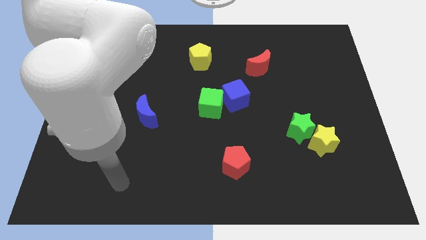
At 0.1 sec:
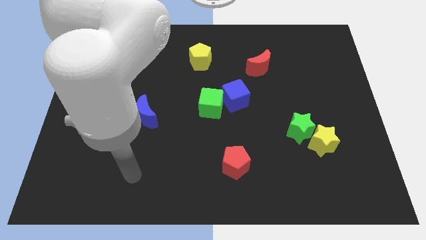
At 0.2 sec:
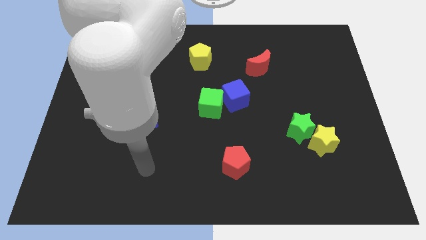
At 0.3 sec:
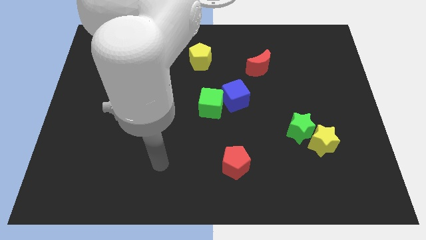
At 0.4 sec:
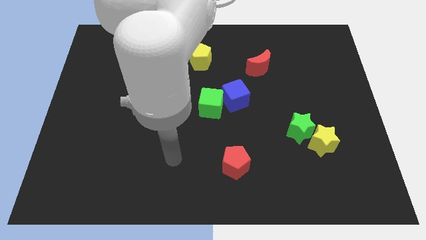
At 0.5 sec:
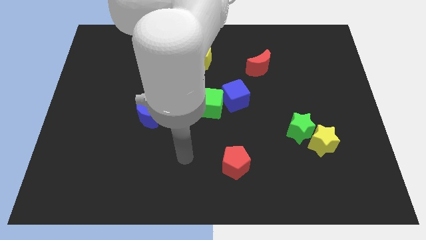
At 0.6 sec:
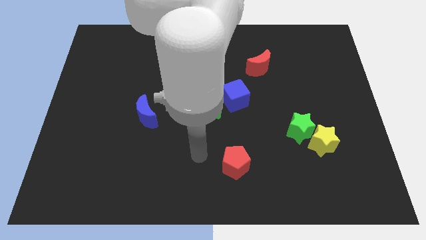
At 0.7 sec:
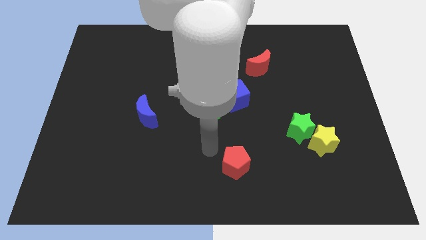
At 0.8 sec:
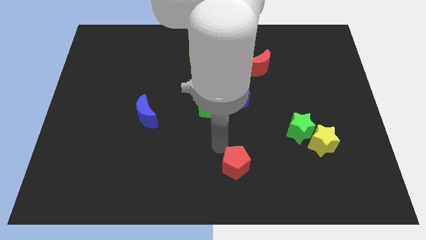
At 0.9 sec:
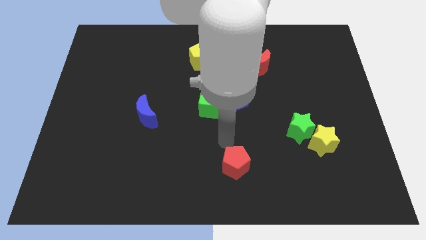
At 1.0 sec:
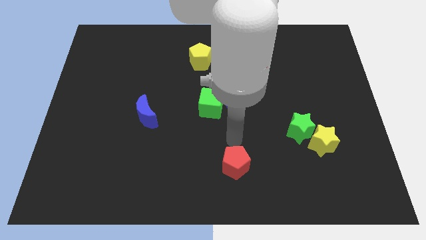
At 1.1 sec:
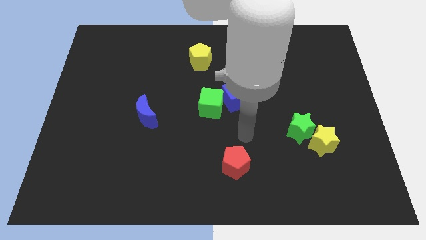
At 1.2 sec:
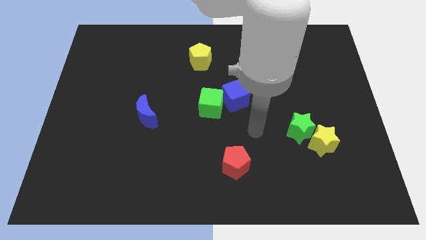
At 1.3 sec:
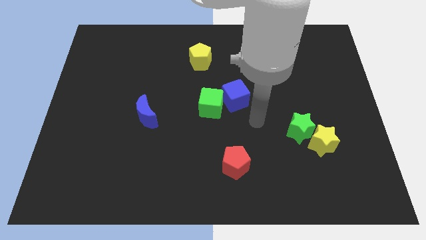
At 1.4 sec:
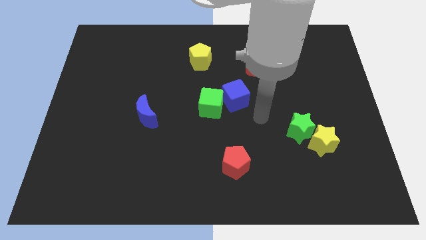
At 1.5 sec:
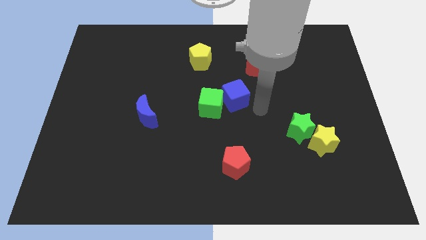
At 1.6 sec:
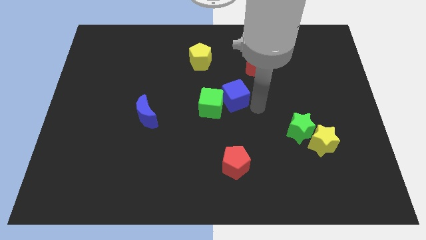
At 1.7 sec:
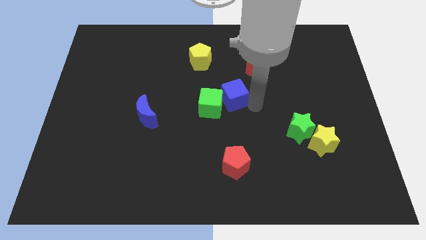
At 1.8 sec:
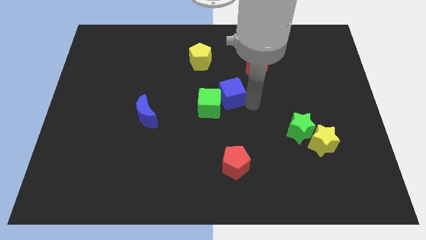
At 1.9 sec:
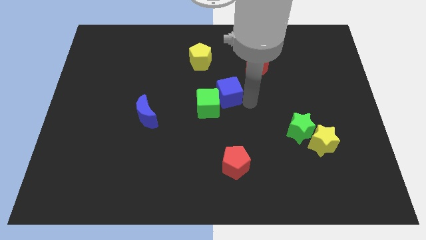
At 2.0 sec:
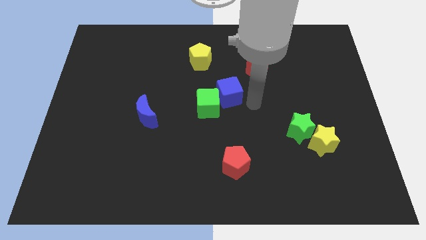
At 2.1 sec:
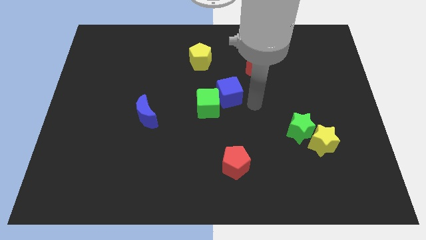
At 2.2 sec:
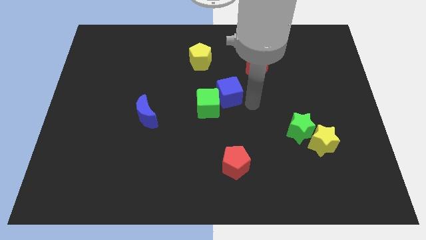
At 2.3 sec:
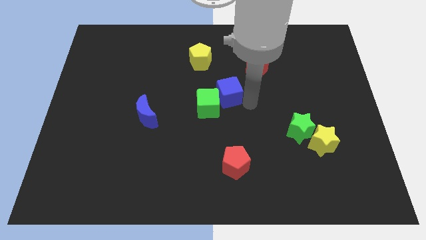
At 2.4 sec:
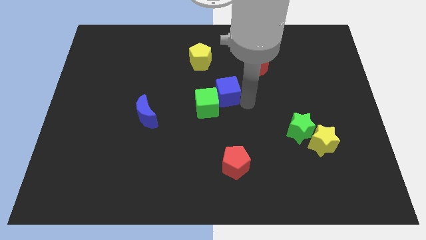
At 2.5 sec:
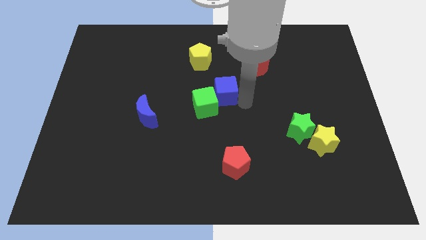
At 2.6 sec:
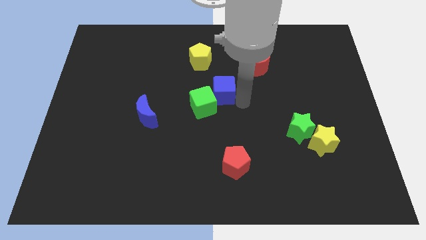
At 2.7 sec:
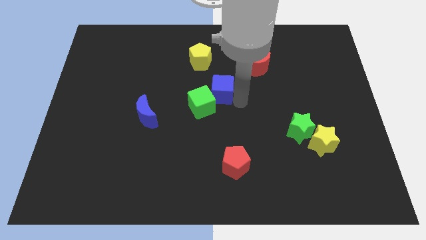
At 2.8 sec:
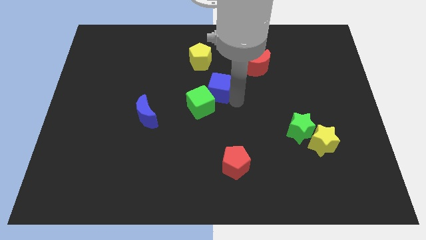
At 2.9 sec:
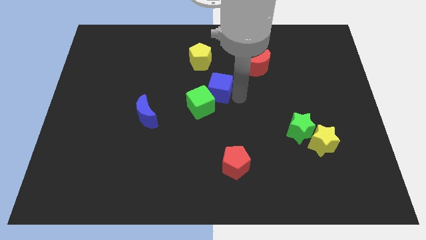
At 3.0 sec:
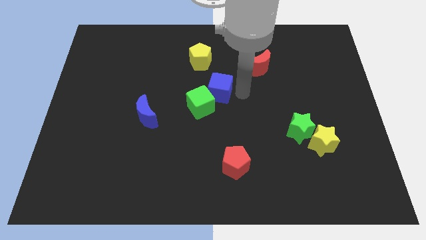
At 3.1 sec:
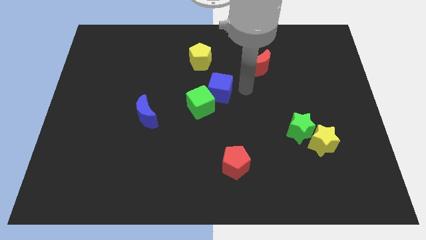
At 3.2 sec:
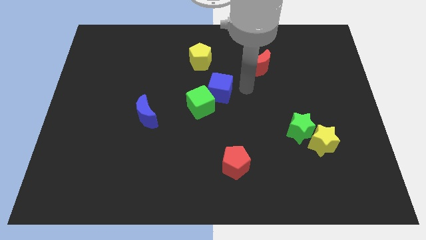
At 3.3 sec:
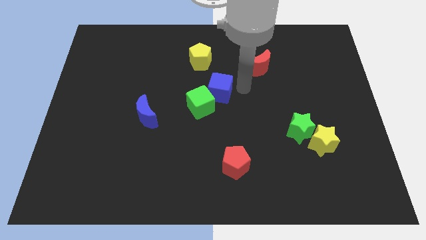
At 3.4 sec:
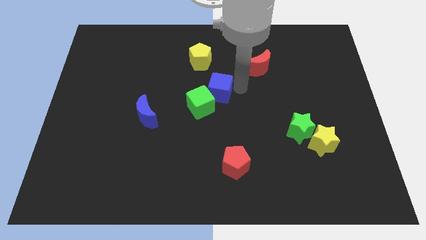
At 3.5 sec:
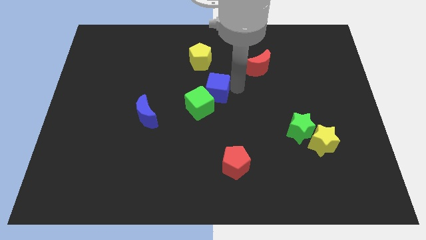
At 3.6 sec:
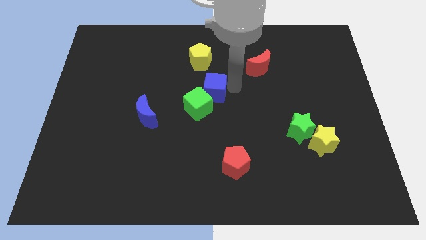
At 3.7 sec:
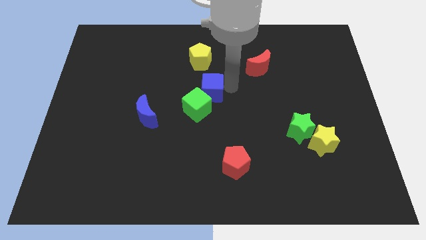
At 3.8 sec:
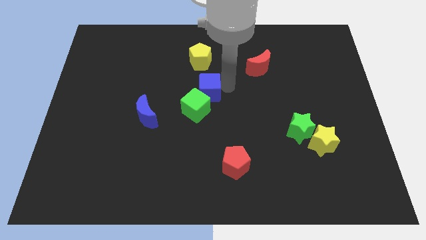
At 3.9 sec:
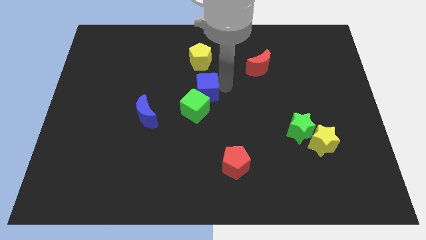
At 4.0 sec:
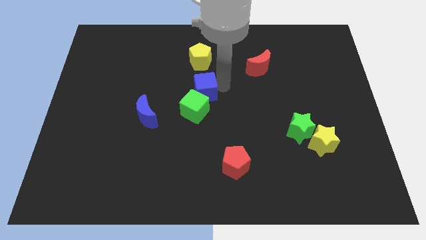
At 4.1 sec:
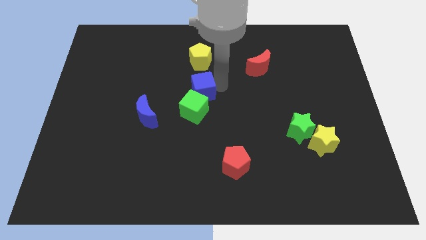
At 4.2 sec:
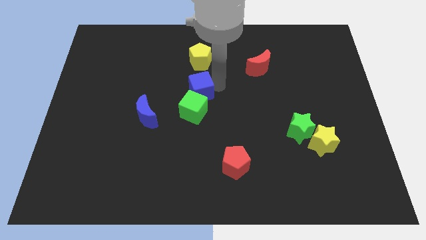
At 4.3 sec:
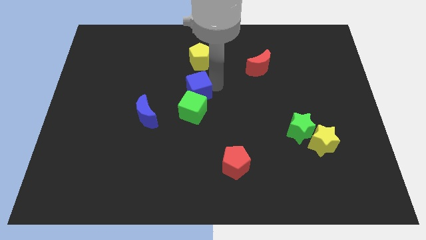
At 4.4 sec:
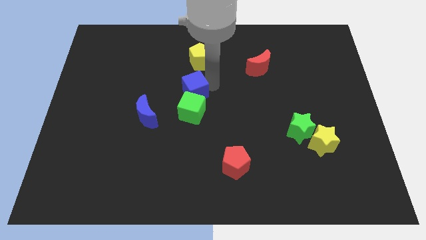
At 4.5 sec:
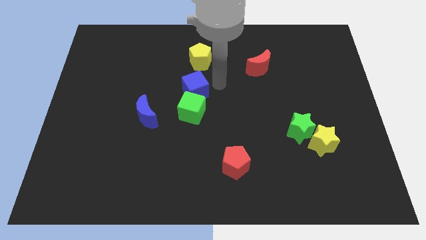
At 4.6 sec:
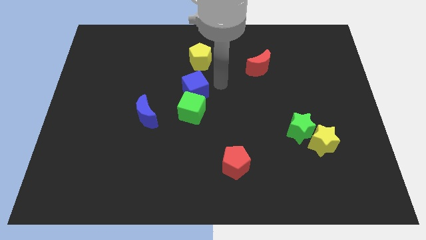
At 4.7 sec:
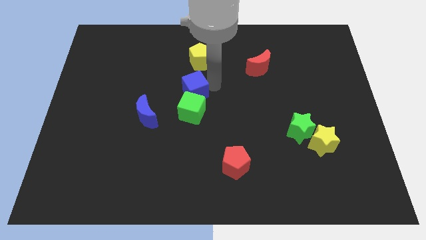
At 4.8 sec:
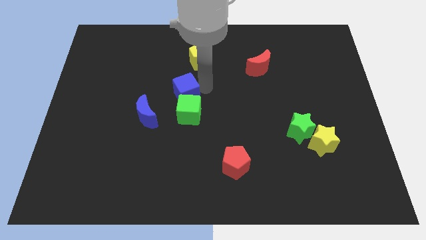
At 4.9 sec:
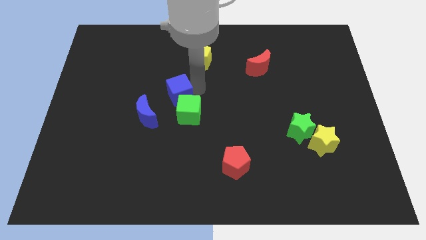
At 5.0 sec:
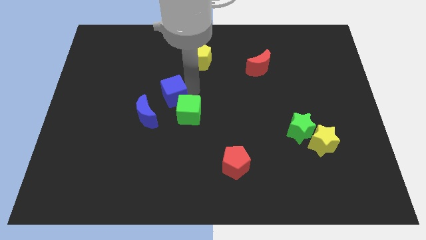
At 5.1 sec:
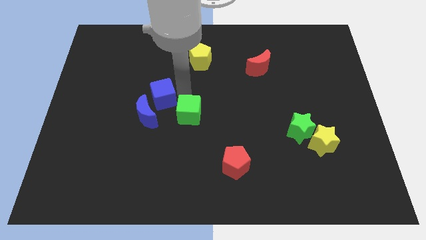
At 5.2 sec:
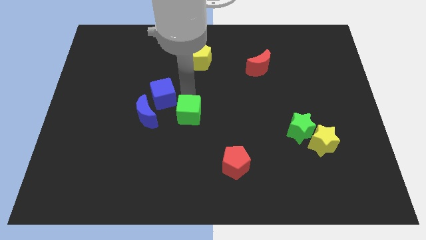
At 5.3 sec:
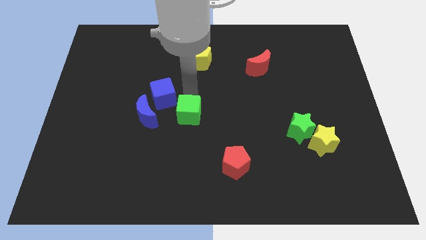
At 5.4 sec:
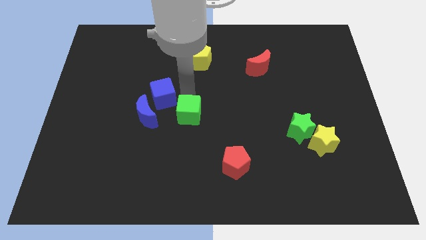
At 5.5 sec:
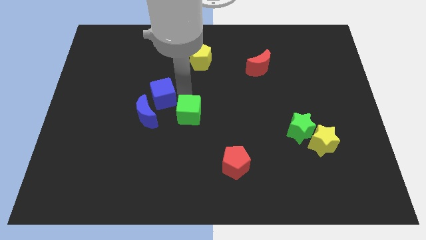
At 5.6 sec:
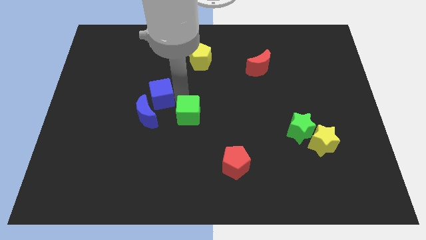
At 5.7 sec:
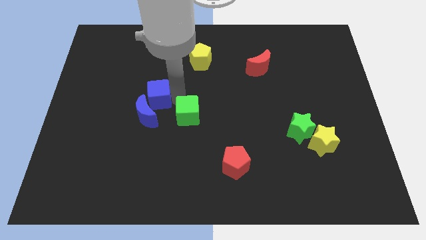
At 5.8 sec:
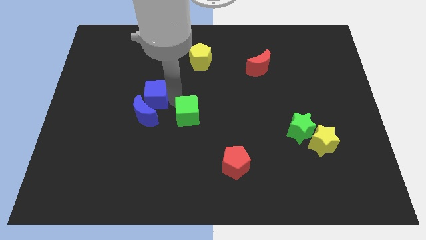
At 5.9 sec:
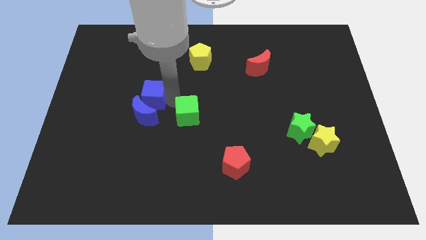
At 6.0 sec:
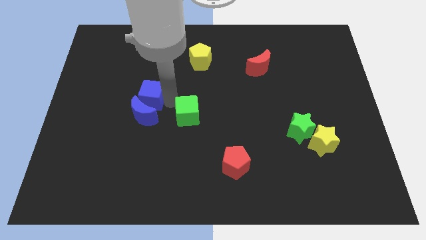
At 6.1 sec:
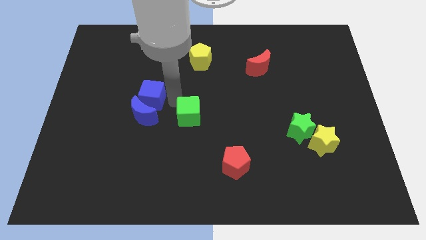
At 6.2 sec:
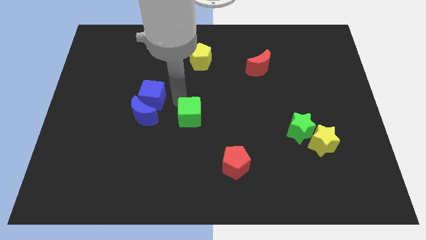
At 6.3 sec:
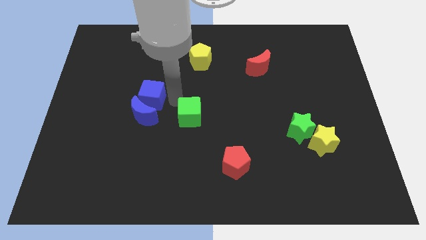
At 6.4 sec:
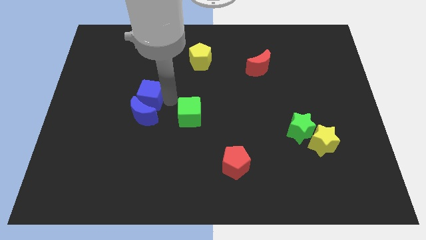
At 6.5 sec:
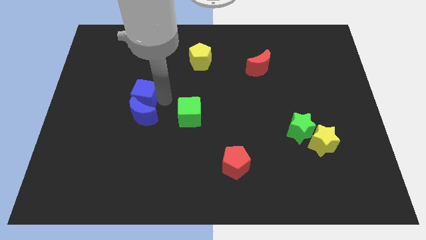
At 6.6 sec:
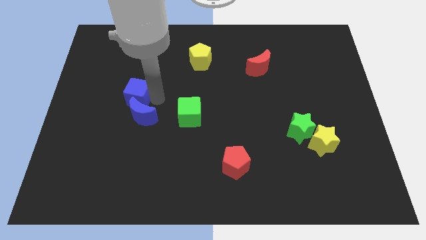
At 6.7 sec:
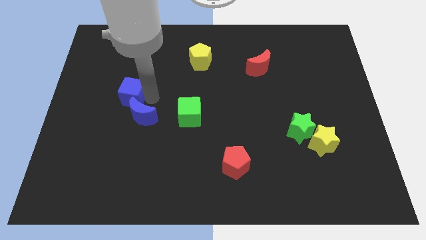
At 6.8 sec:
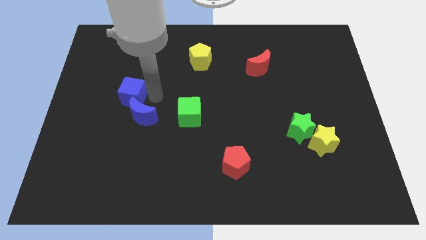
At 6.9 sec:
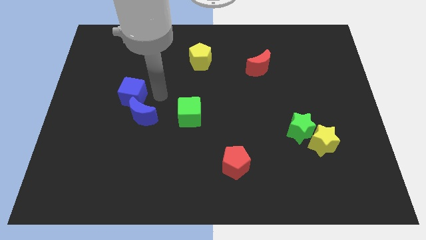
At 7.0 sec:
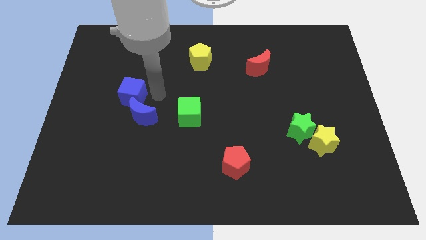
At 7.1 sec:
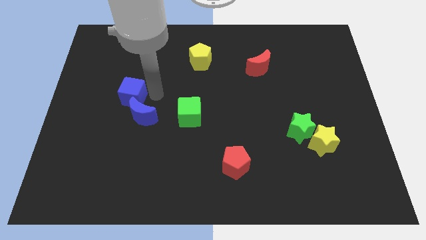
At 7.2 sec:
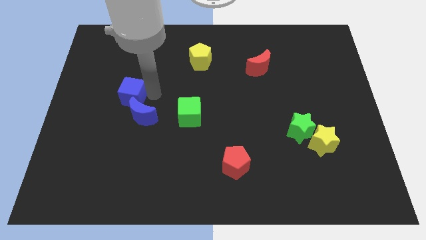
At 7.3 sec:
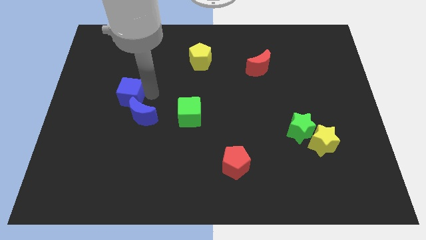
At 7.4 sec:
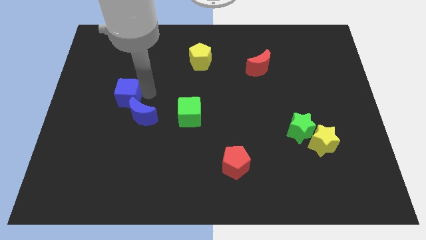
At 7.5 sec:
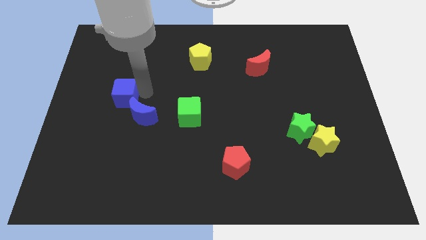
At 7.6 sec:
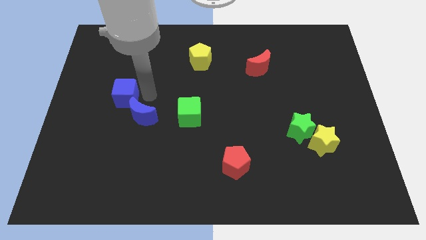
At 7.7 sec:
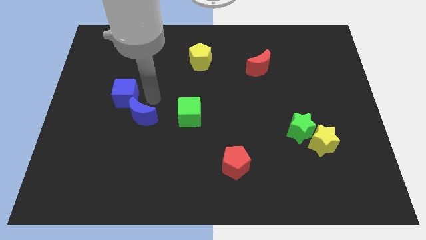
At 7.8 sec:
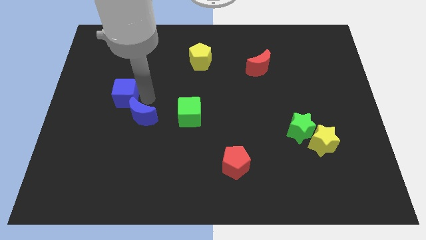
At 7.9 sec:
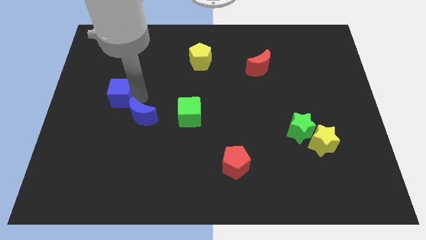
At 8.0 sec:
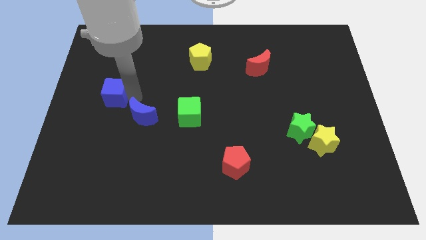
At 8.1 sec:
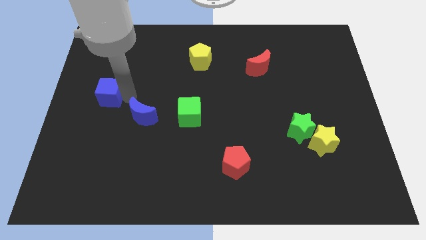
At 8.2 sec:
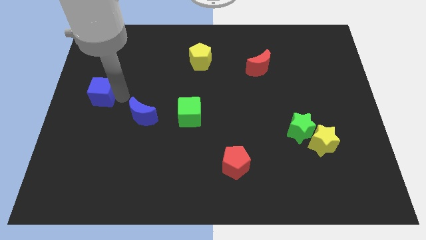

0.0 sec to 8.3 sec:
move the blue cube to the left side
